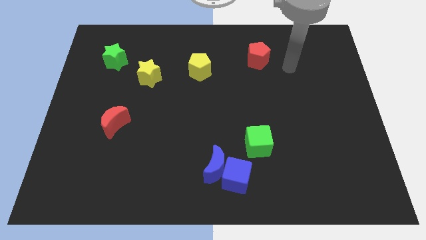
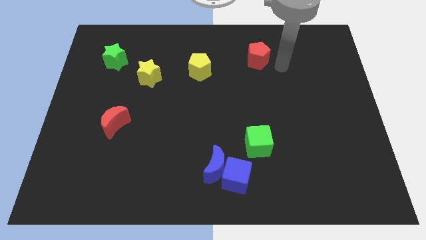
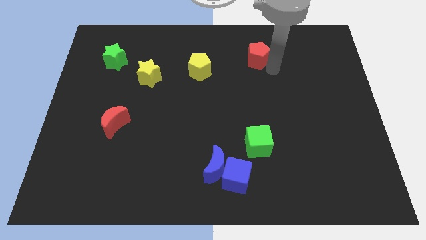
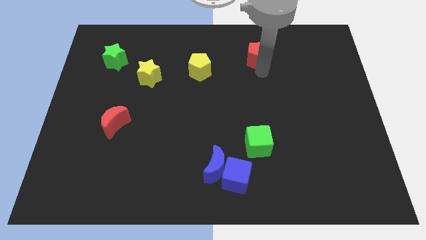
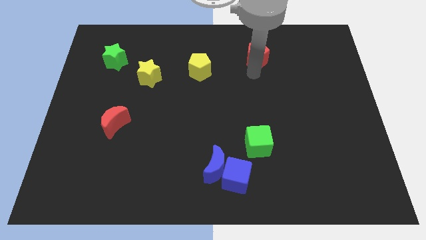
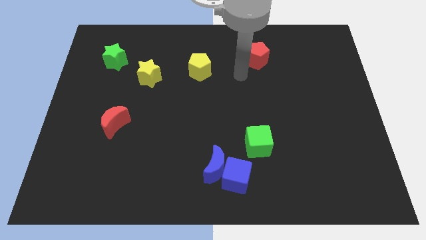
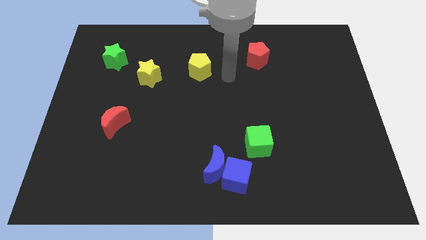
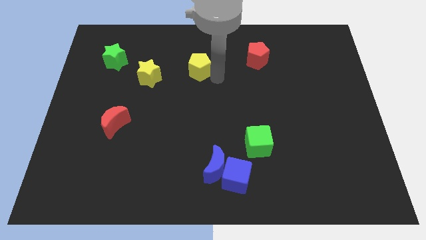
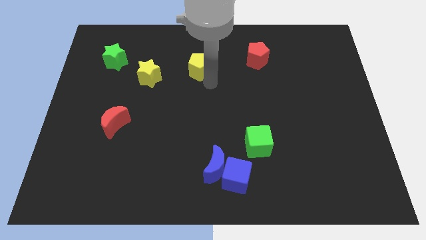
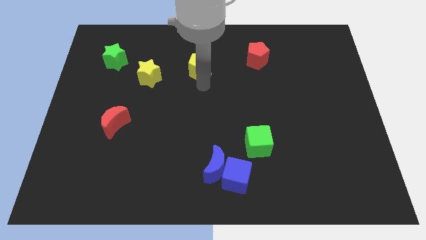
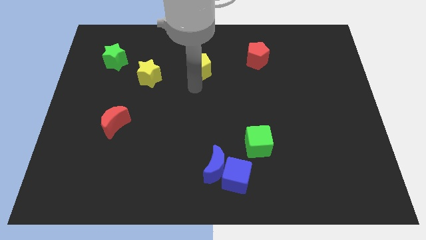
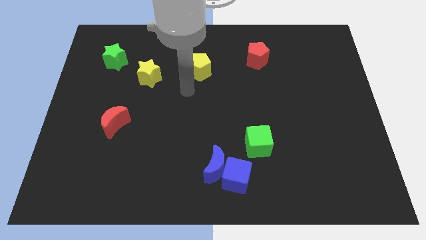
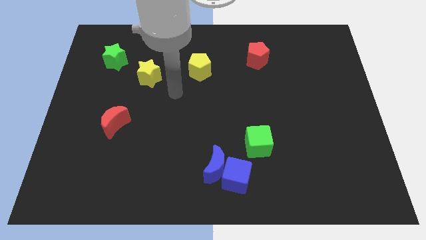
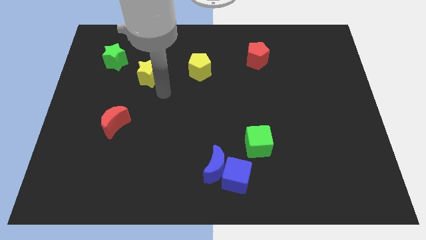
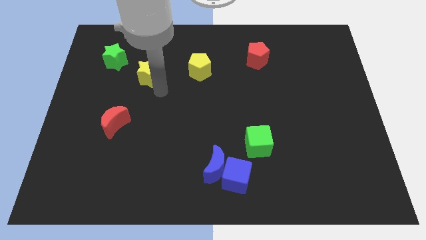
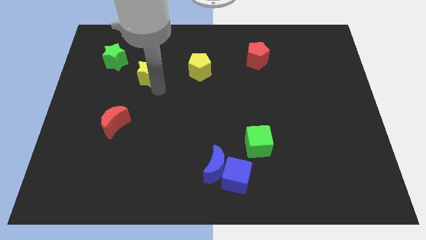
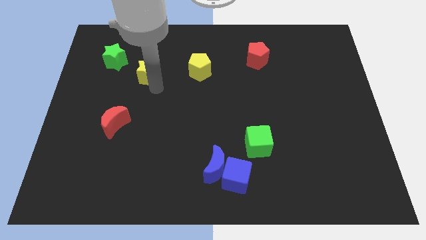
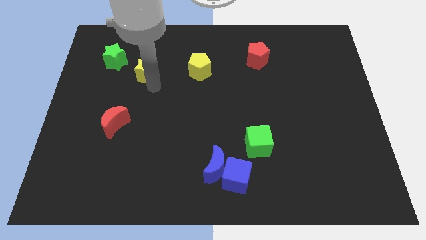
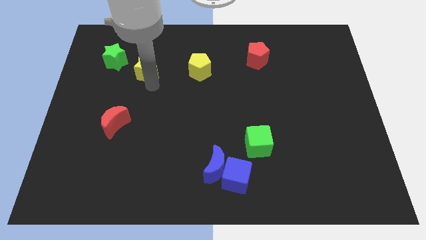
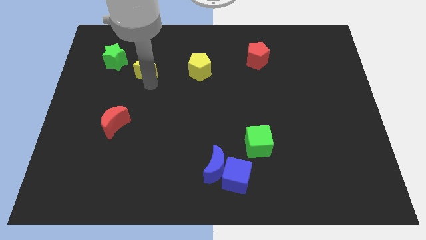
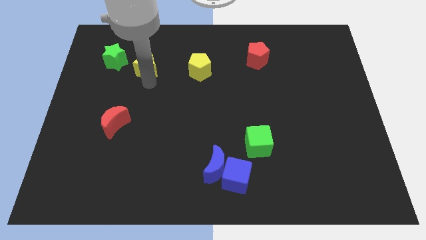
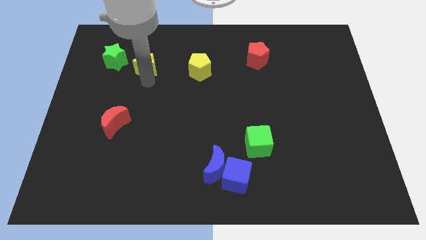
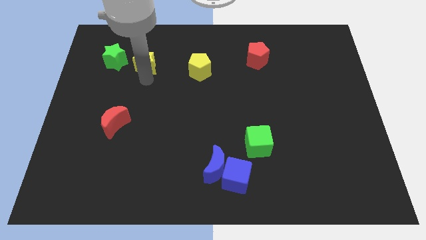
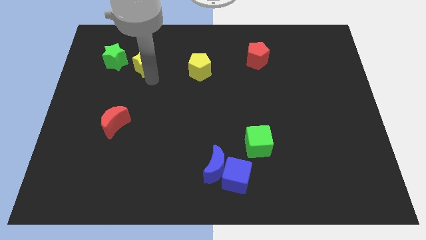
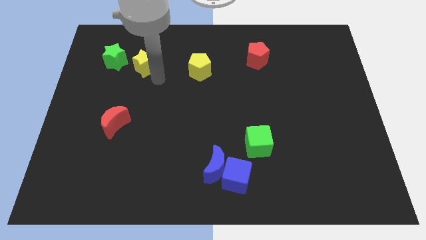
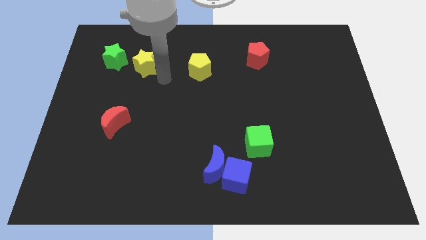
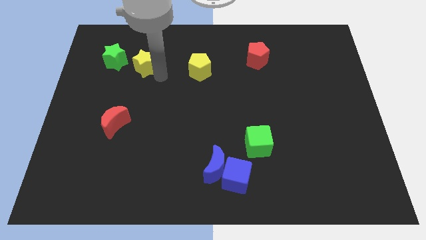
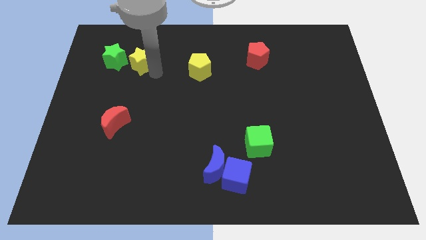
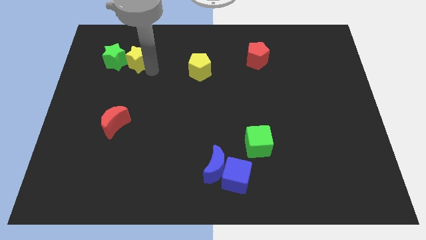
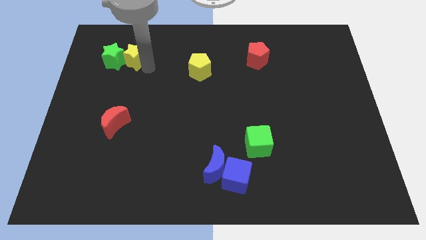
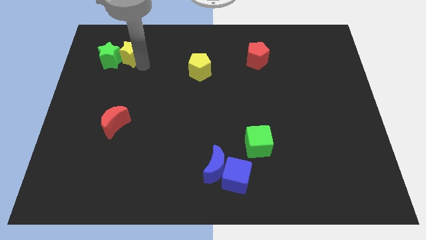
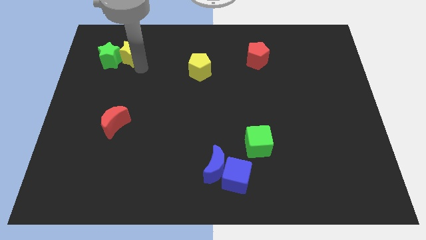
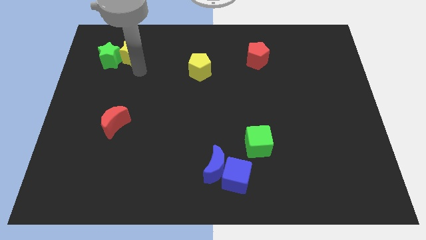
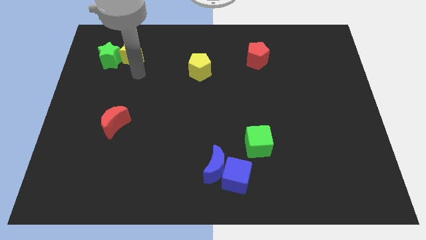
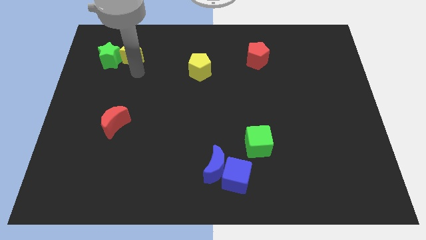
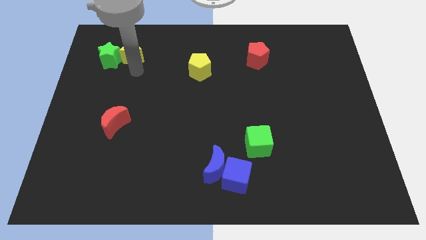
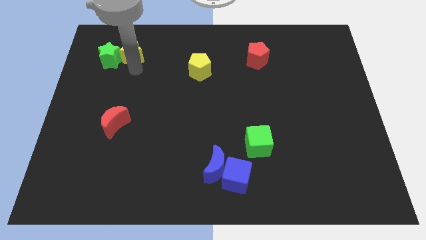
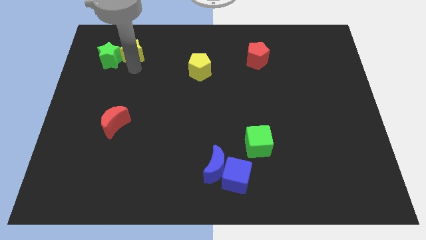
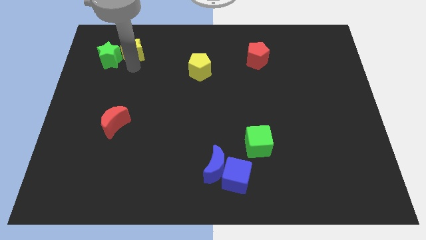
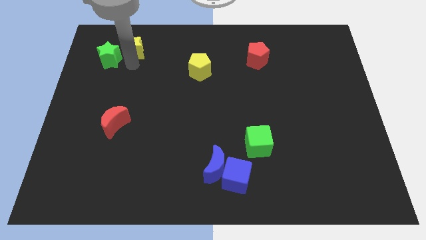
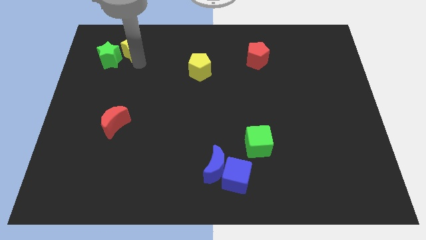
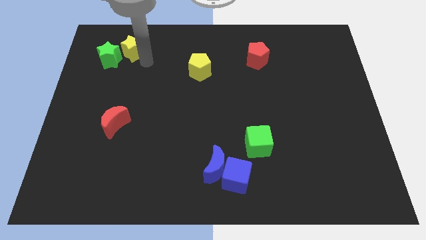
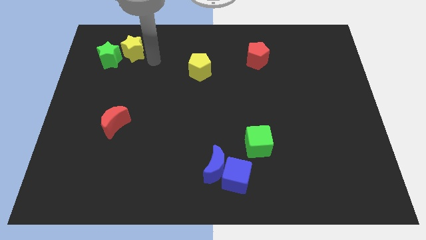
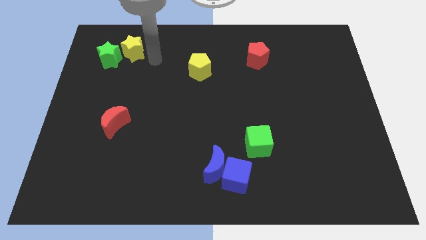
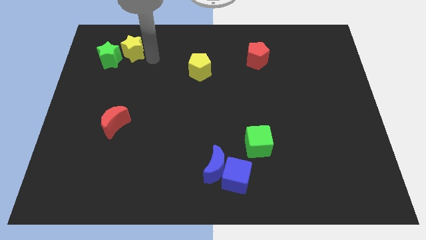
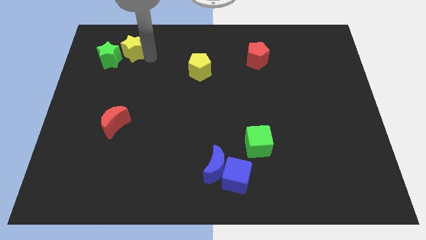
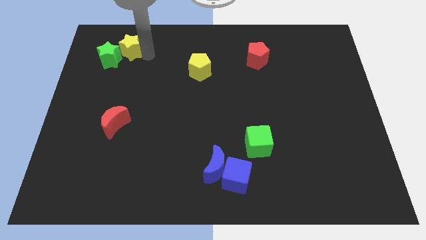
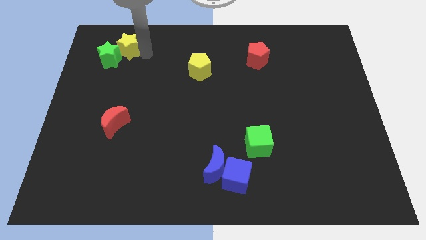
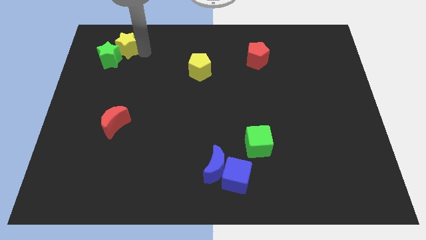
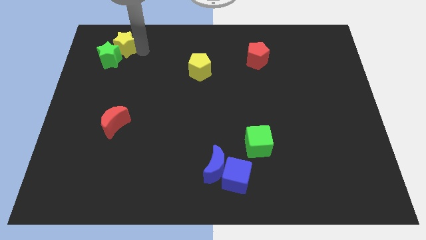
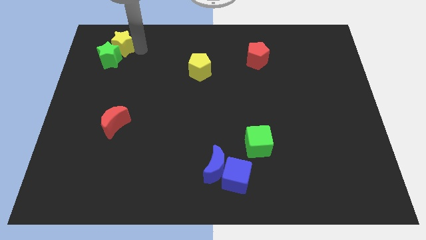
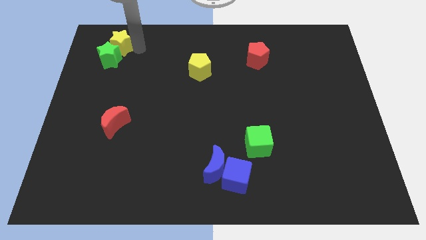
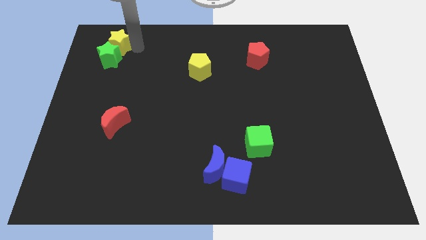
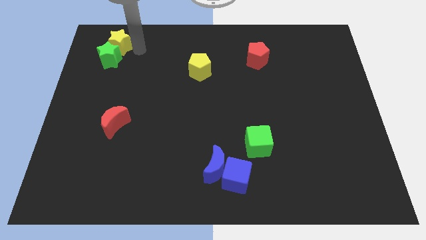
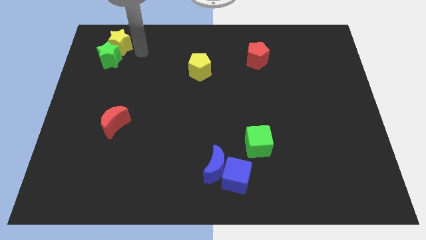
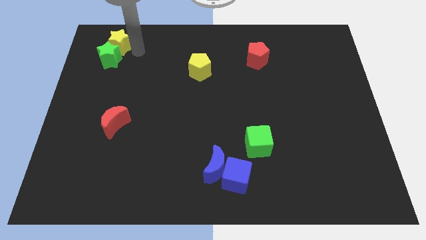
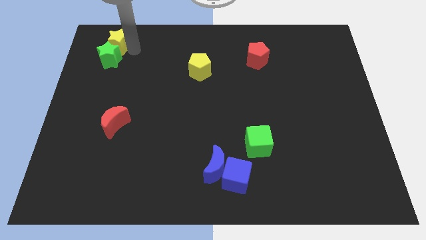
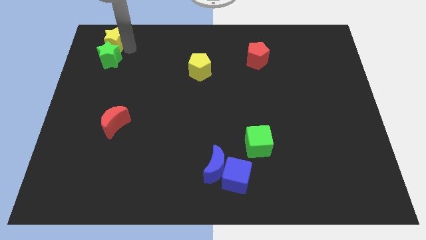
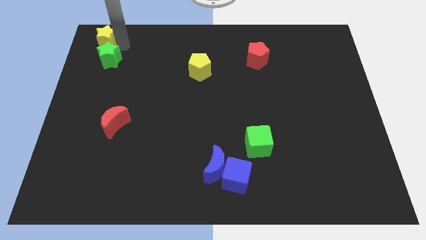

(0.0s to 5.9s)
put the yellow star to the top left

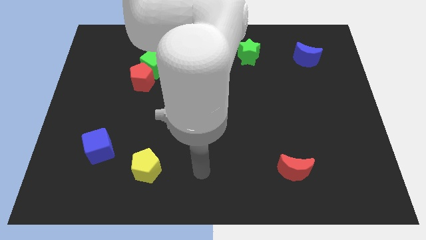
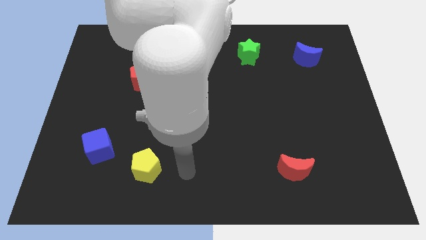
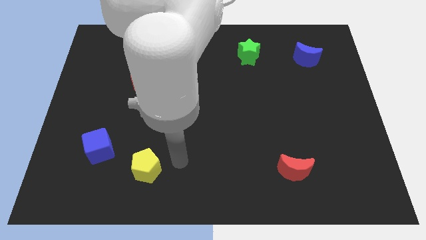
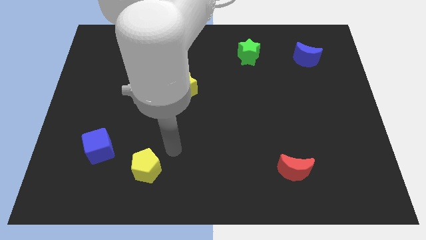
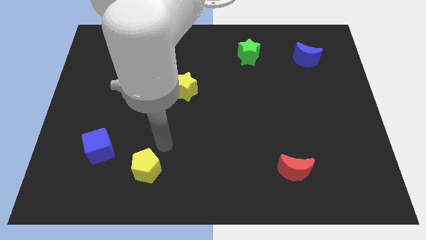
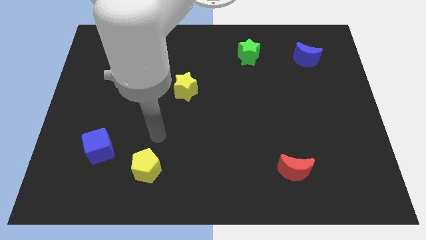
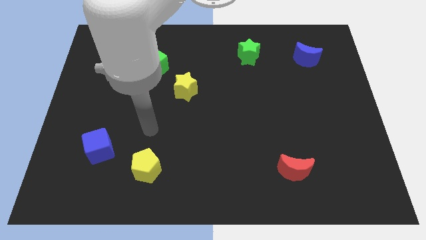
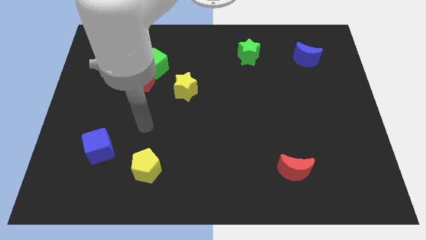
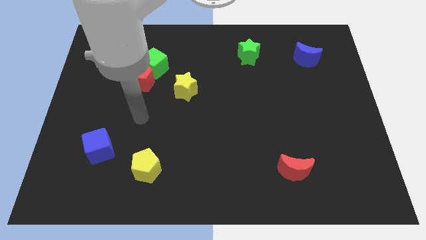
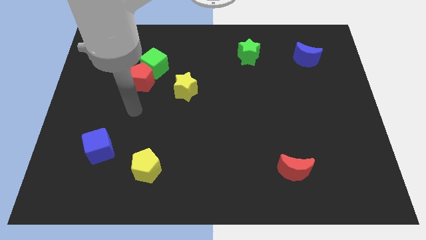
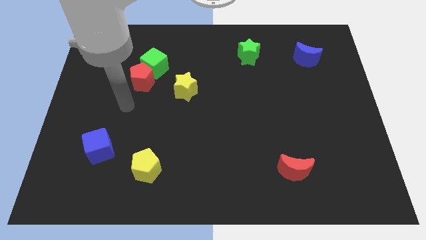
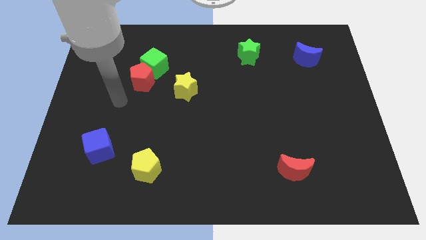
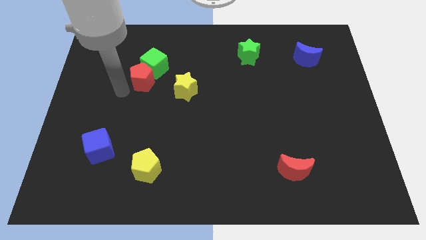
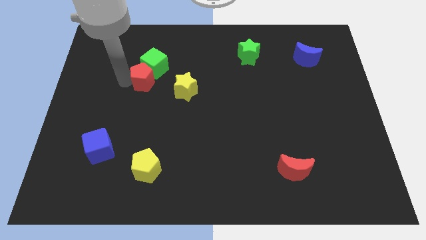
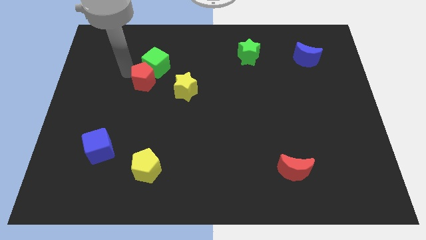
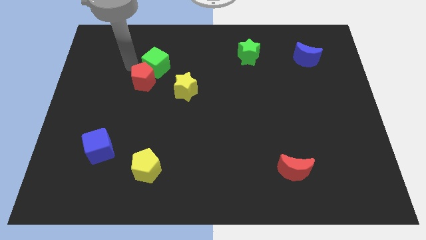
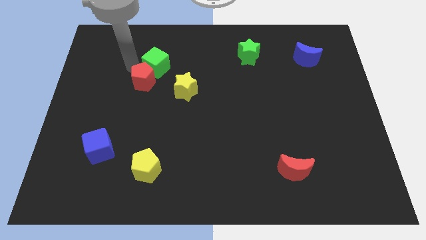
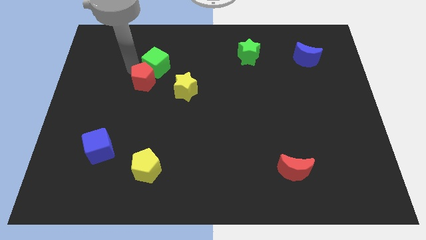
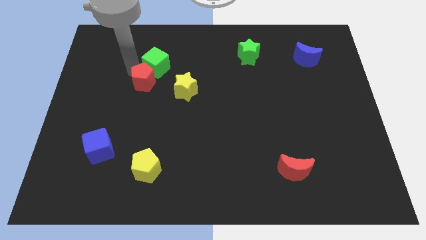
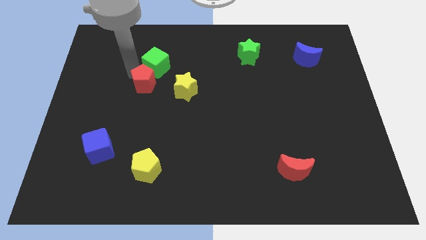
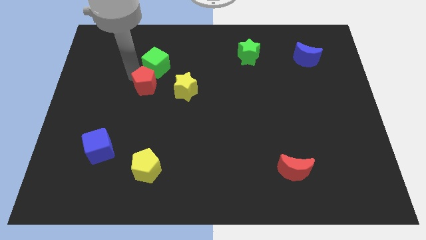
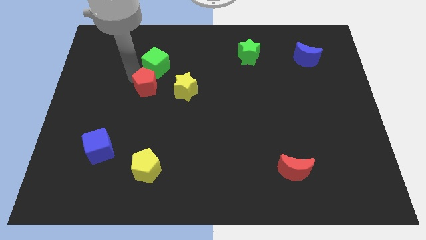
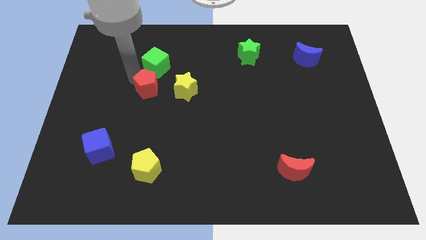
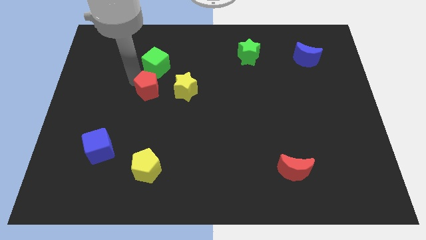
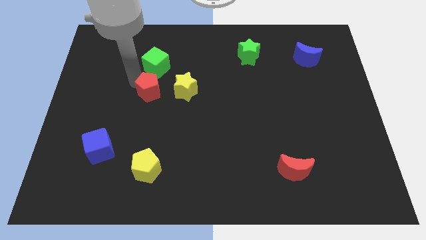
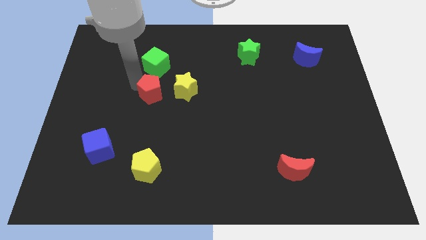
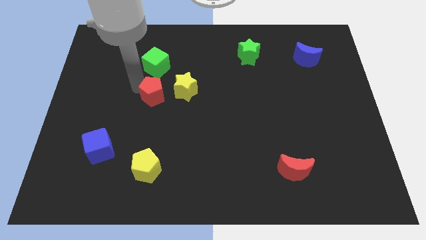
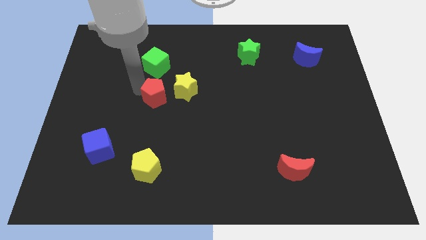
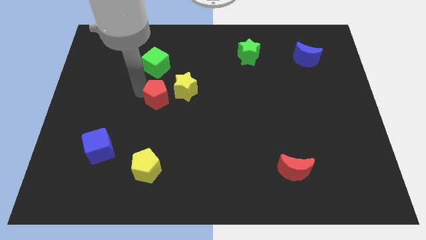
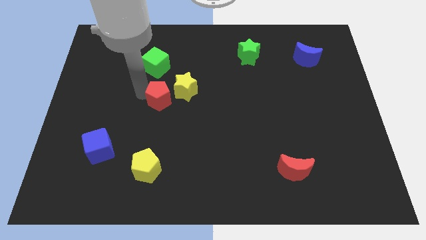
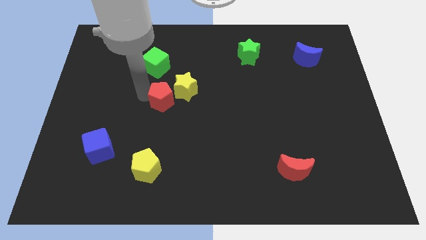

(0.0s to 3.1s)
push the red pentagon to the middle
